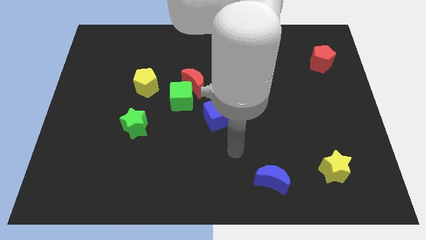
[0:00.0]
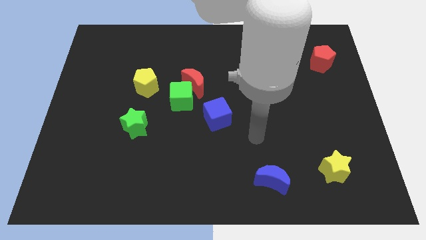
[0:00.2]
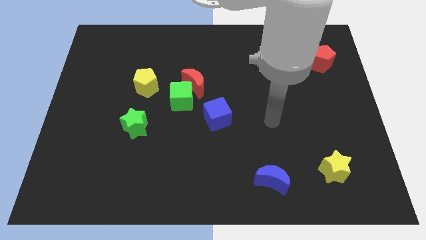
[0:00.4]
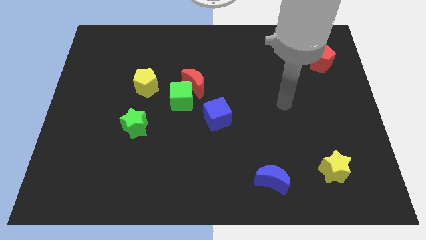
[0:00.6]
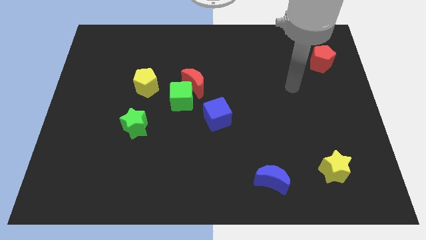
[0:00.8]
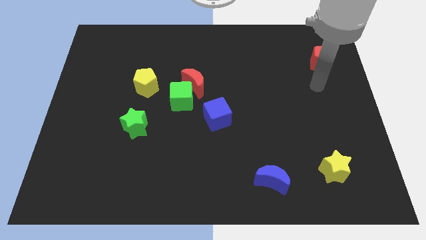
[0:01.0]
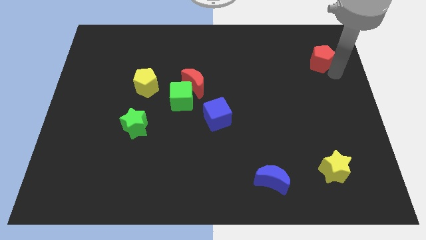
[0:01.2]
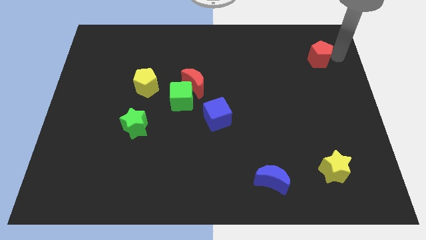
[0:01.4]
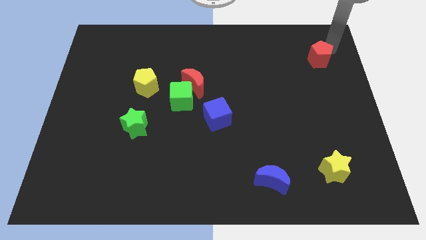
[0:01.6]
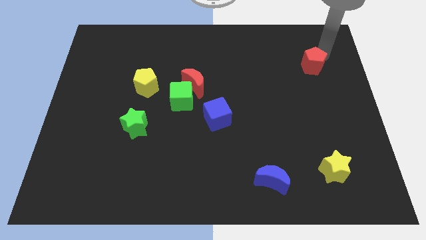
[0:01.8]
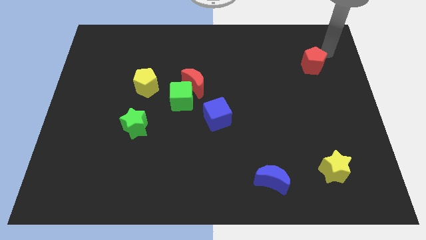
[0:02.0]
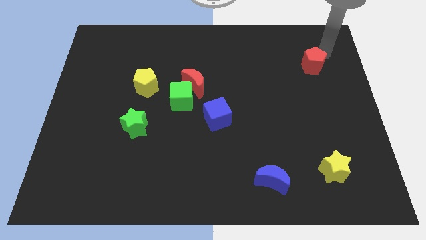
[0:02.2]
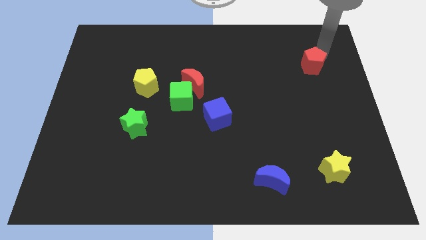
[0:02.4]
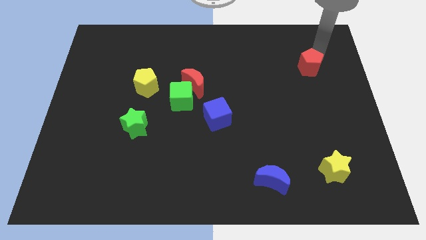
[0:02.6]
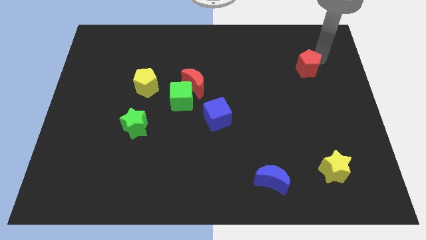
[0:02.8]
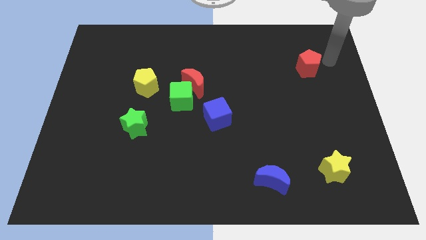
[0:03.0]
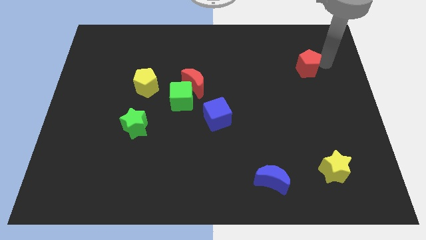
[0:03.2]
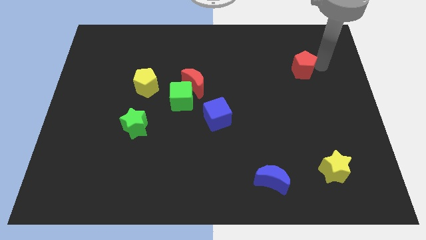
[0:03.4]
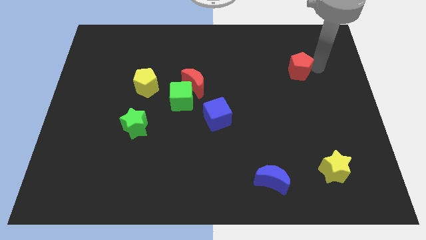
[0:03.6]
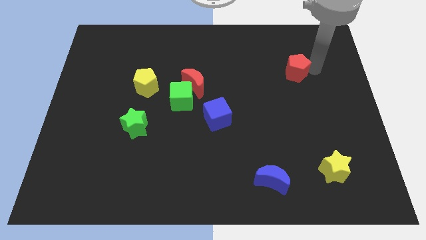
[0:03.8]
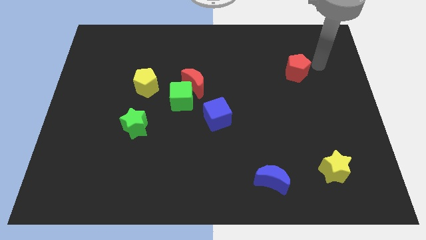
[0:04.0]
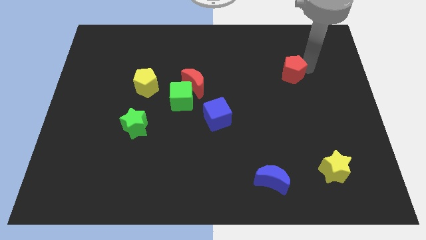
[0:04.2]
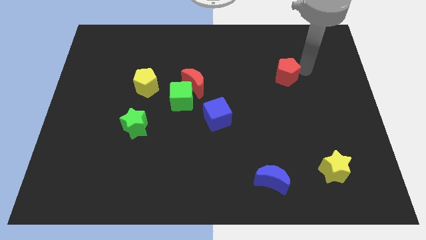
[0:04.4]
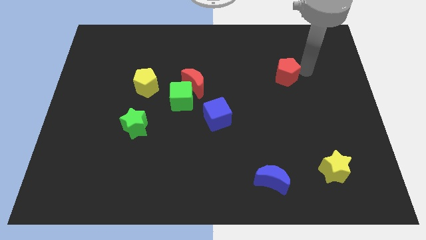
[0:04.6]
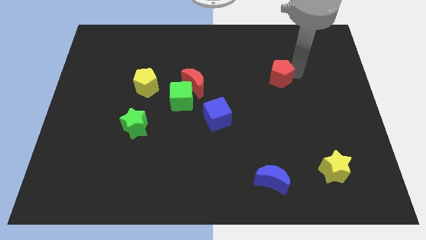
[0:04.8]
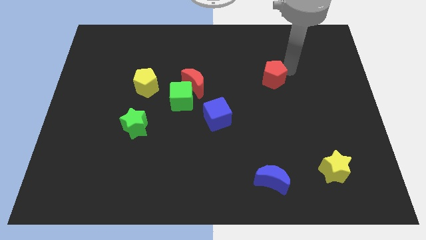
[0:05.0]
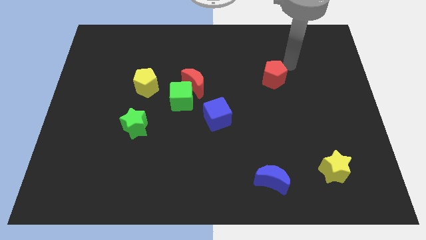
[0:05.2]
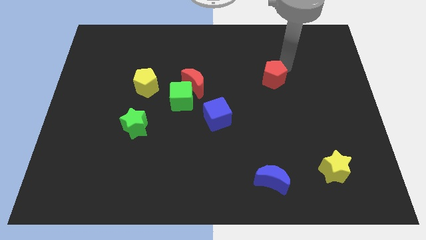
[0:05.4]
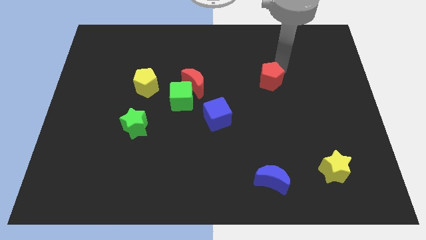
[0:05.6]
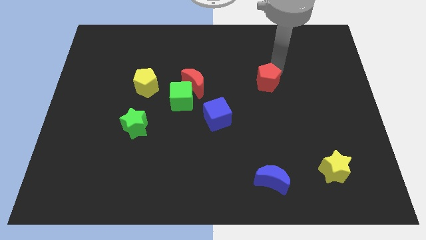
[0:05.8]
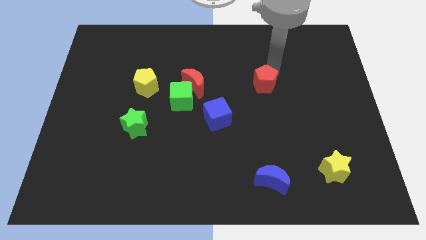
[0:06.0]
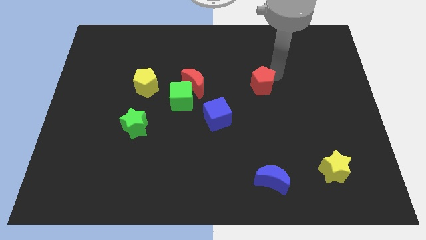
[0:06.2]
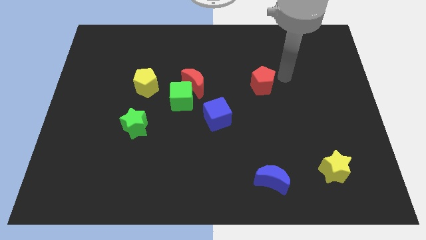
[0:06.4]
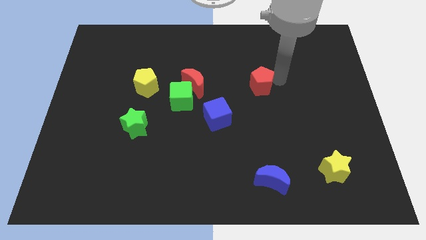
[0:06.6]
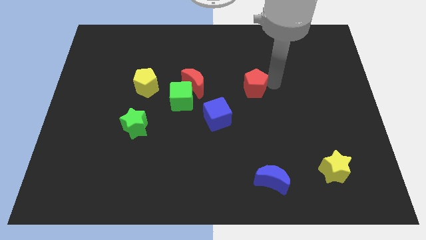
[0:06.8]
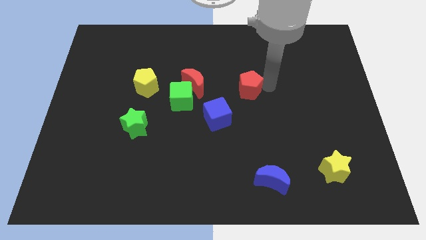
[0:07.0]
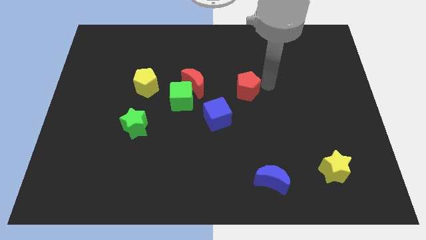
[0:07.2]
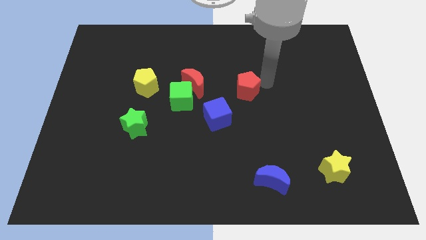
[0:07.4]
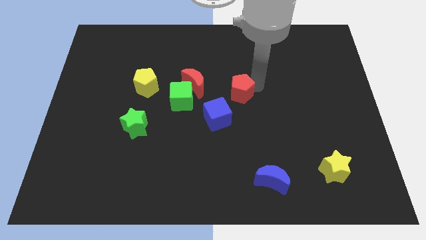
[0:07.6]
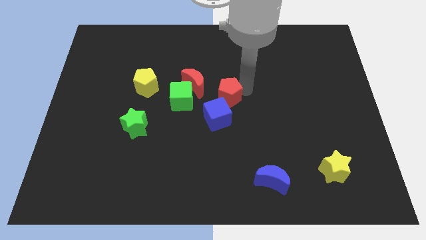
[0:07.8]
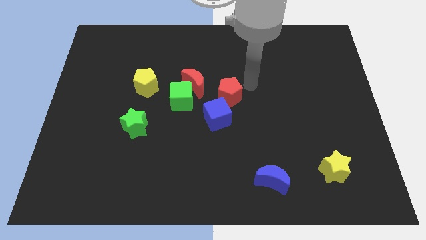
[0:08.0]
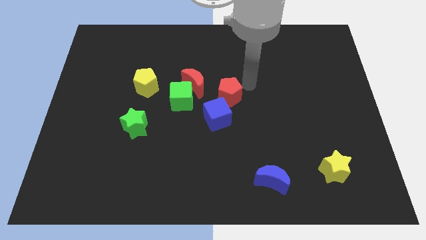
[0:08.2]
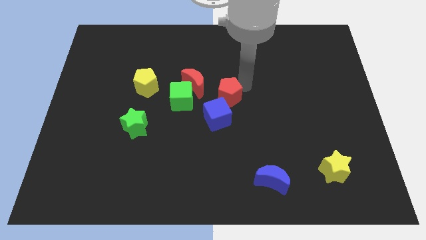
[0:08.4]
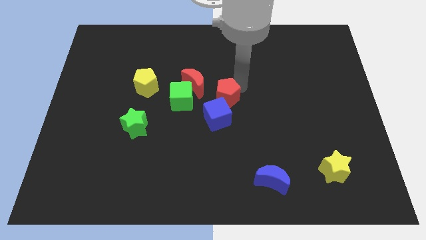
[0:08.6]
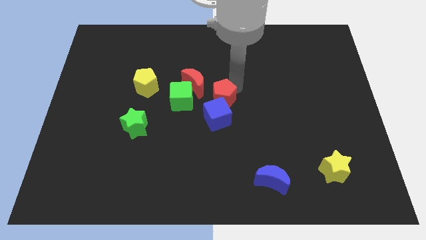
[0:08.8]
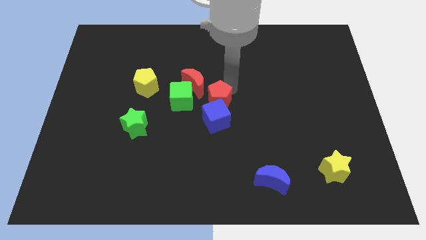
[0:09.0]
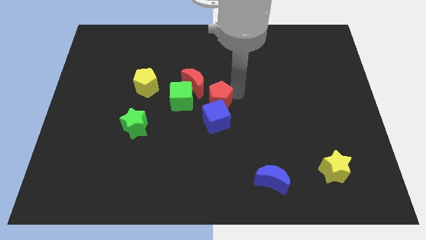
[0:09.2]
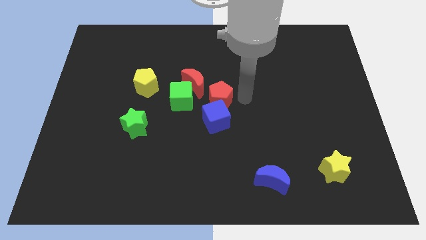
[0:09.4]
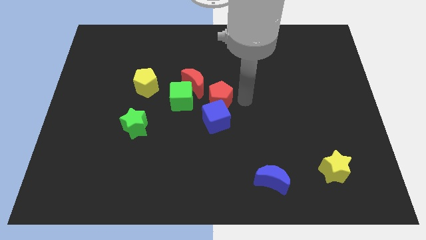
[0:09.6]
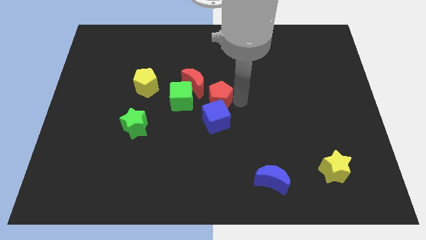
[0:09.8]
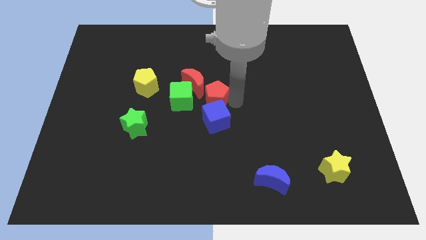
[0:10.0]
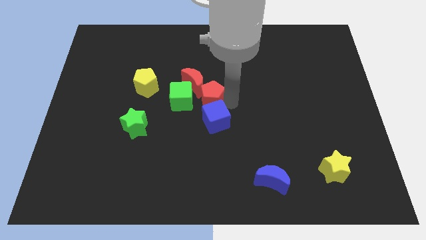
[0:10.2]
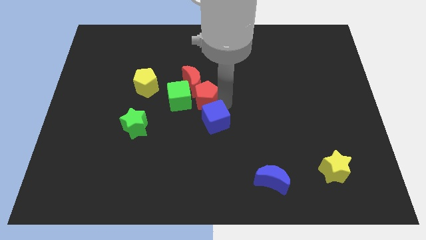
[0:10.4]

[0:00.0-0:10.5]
push the red pentagon next to the green cube

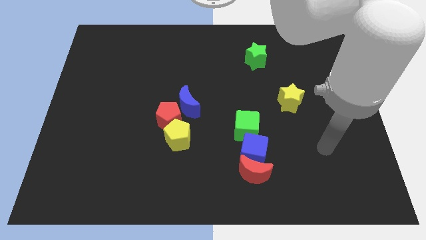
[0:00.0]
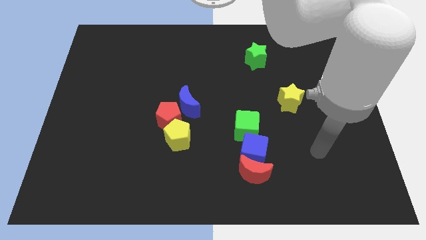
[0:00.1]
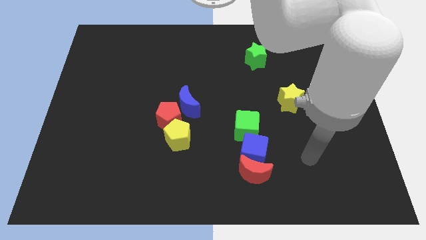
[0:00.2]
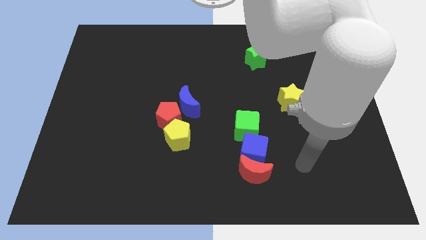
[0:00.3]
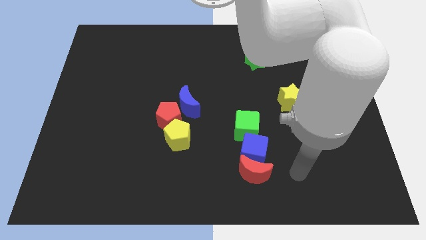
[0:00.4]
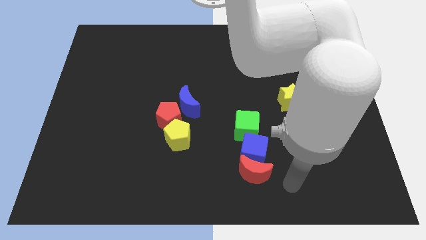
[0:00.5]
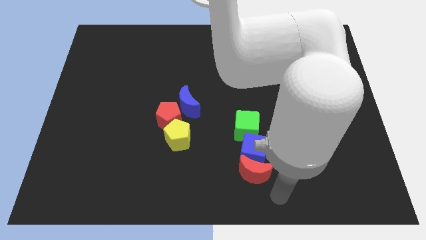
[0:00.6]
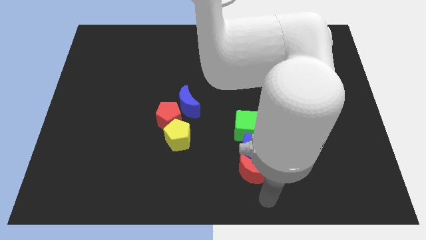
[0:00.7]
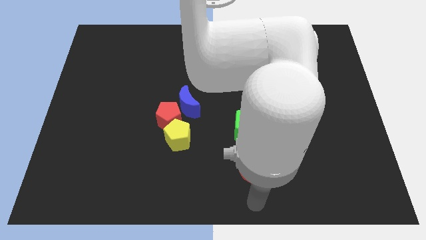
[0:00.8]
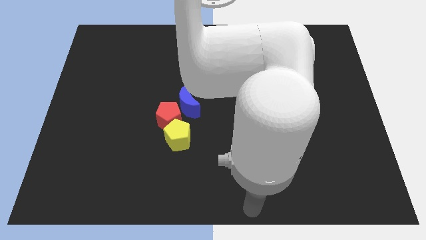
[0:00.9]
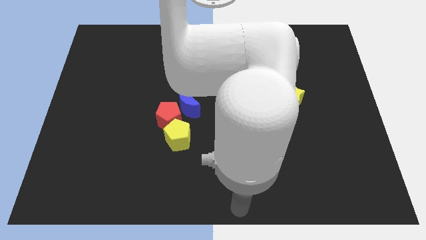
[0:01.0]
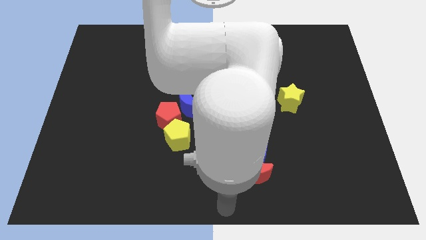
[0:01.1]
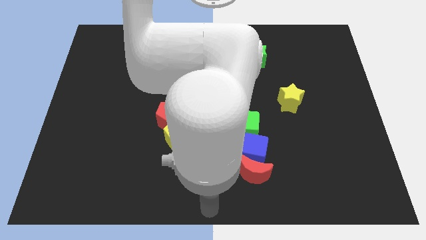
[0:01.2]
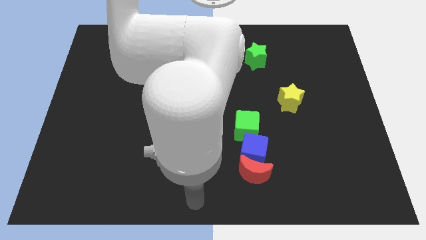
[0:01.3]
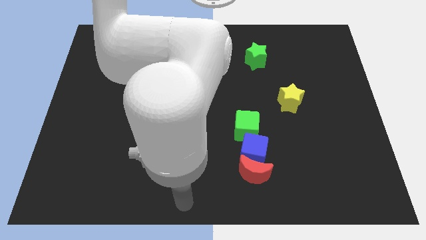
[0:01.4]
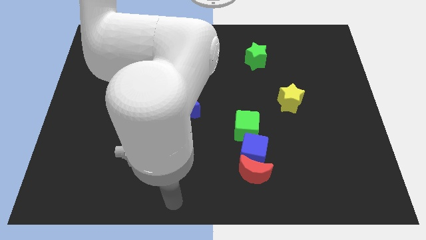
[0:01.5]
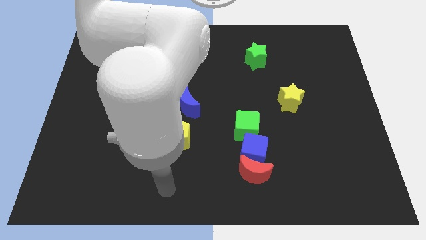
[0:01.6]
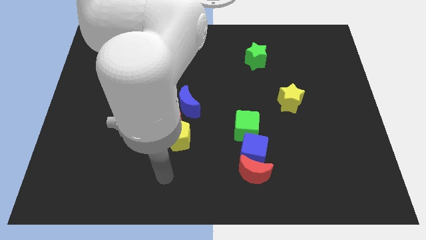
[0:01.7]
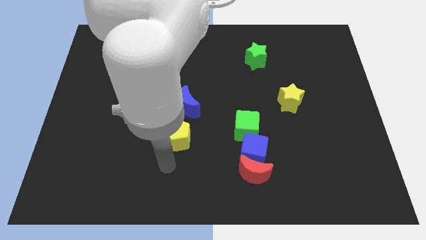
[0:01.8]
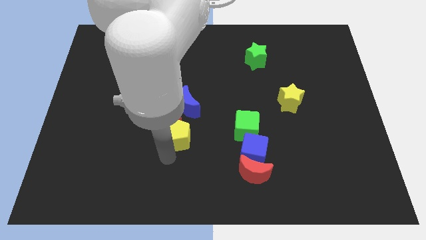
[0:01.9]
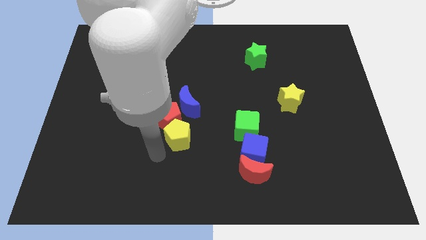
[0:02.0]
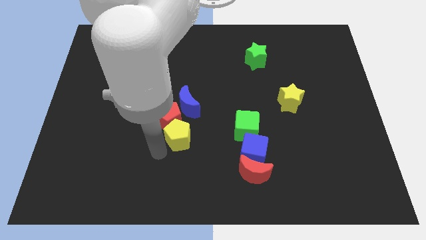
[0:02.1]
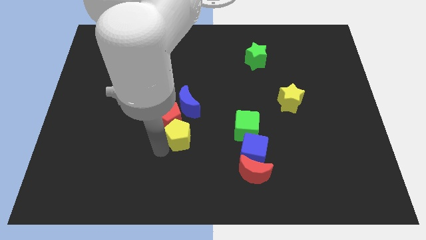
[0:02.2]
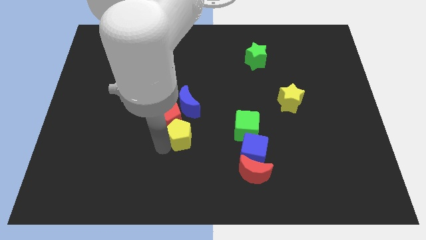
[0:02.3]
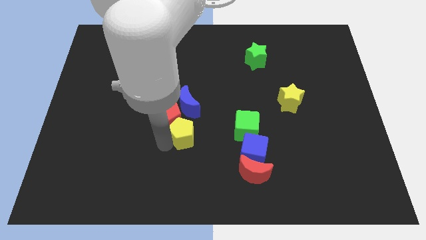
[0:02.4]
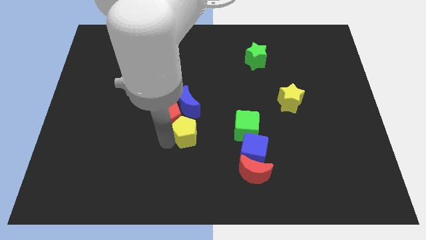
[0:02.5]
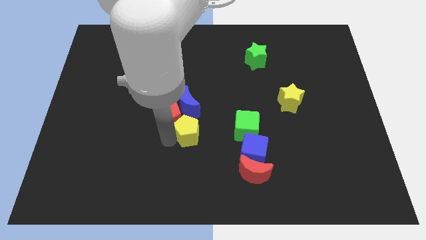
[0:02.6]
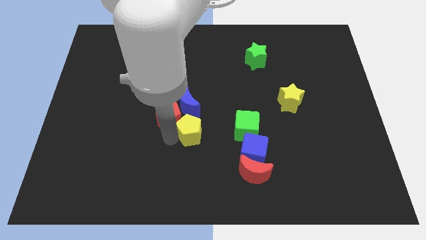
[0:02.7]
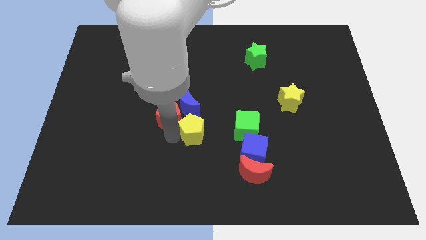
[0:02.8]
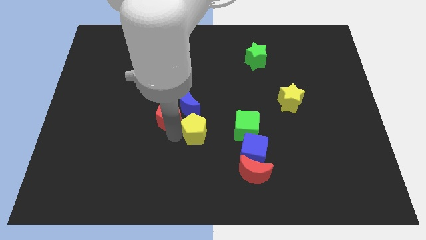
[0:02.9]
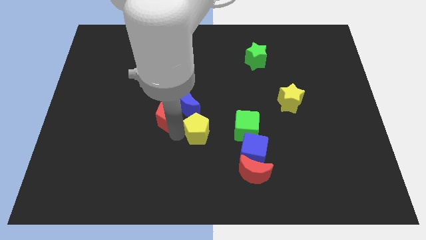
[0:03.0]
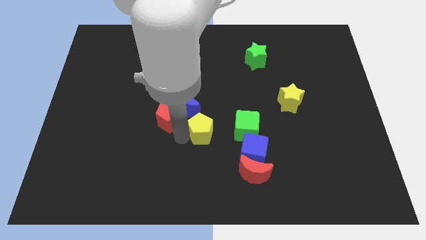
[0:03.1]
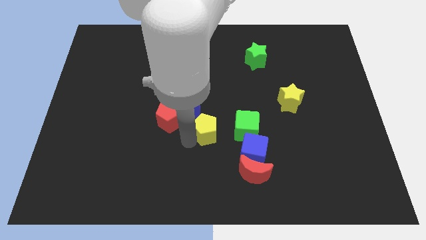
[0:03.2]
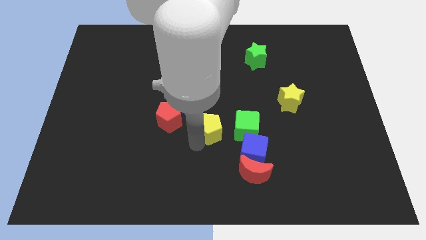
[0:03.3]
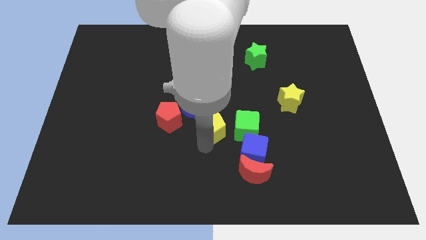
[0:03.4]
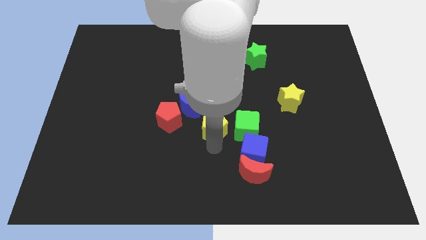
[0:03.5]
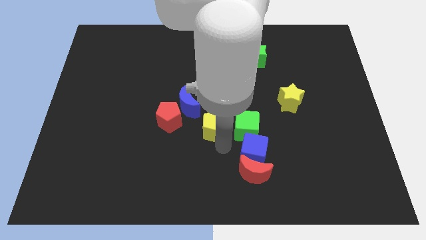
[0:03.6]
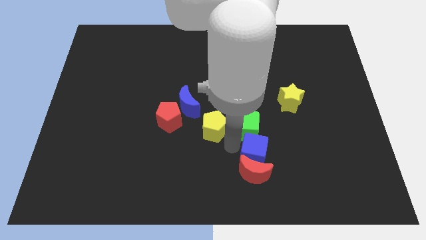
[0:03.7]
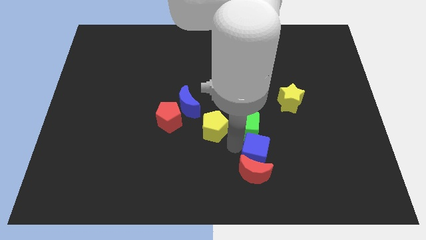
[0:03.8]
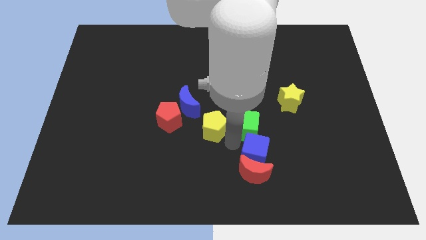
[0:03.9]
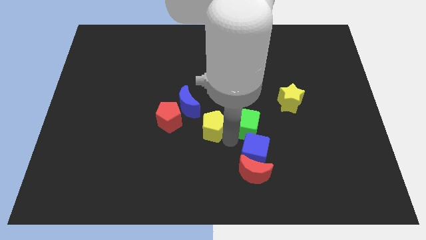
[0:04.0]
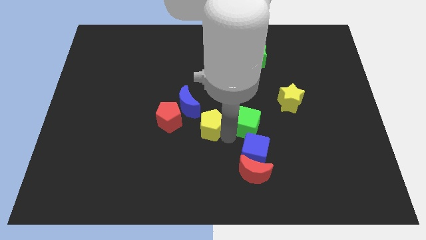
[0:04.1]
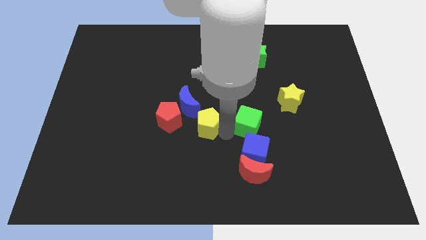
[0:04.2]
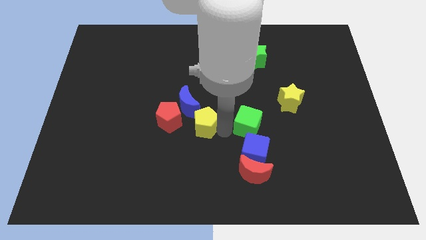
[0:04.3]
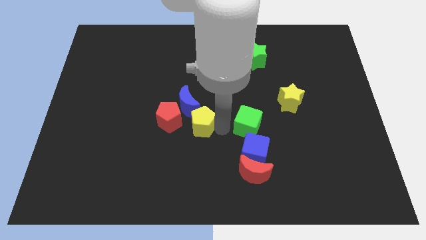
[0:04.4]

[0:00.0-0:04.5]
put the yellow pentagon close to the blue moon
